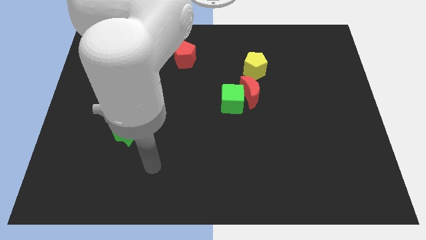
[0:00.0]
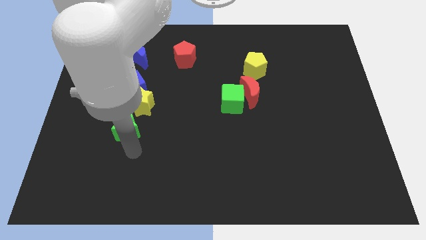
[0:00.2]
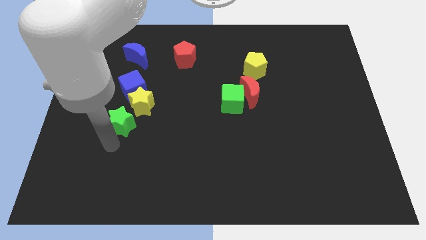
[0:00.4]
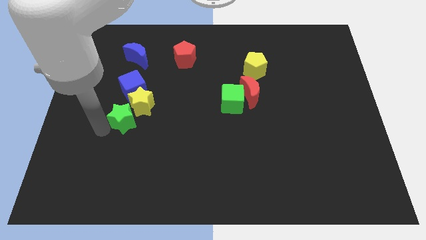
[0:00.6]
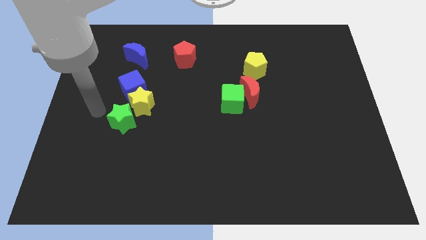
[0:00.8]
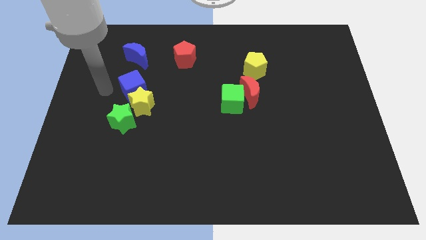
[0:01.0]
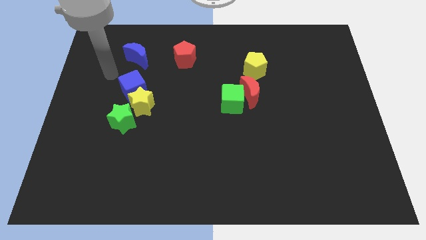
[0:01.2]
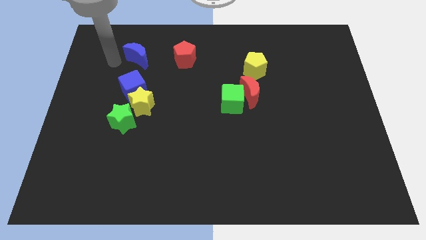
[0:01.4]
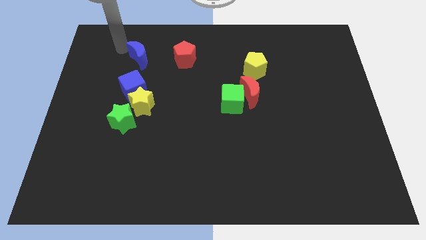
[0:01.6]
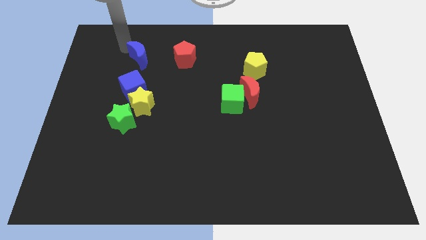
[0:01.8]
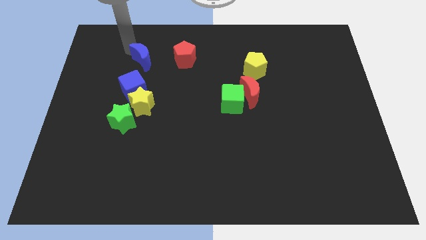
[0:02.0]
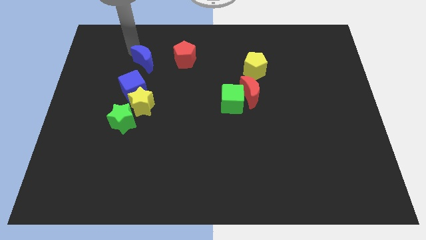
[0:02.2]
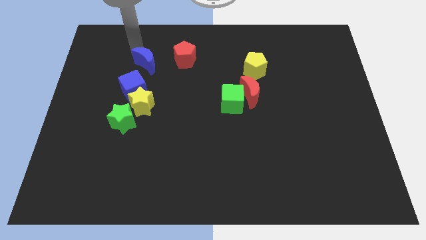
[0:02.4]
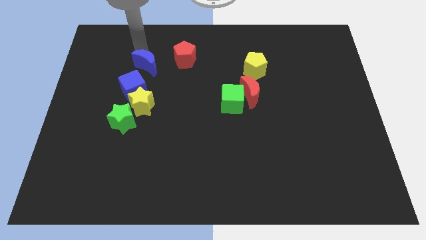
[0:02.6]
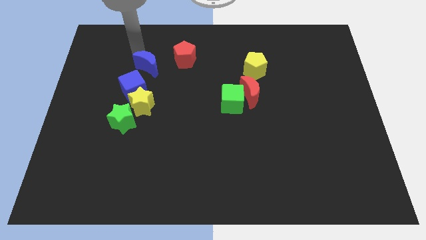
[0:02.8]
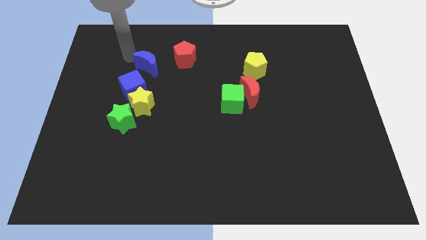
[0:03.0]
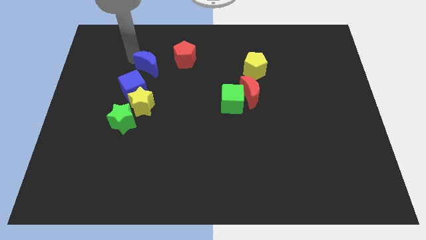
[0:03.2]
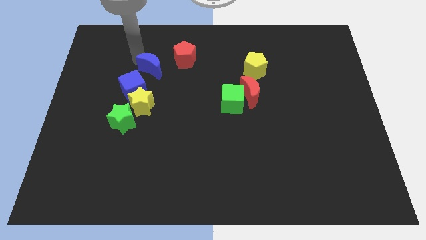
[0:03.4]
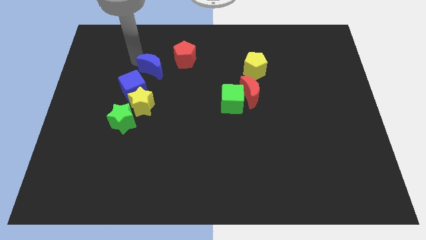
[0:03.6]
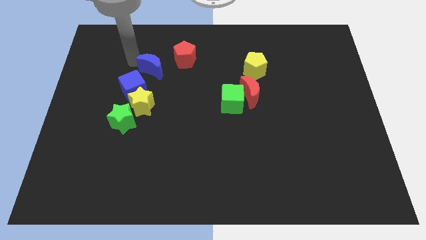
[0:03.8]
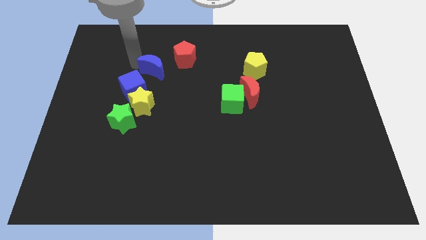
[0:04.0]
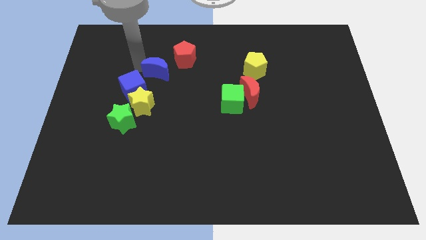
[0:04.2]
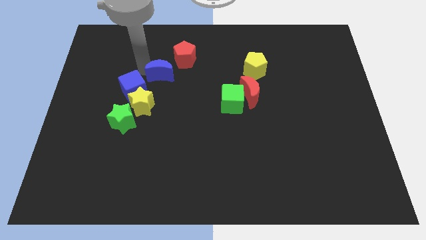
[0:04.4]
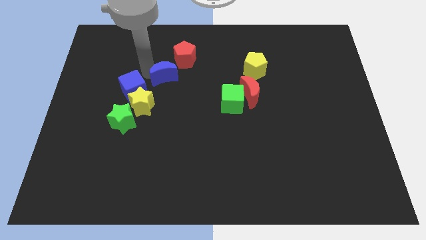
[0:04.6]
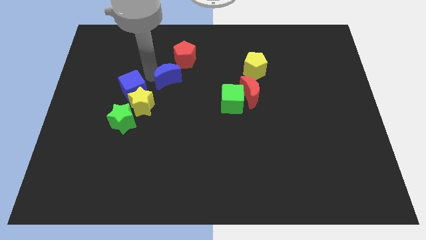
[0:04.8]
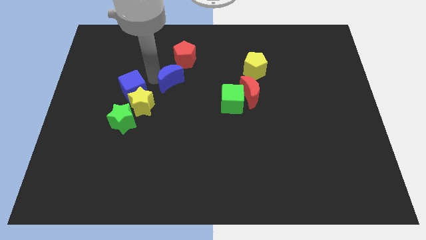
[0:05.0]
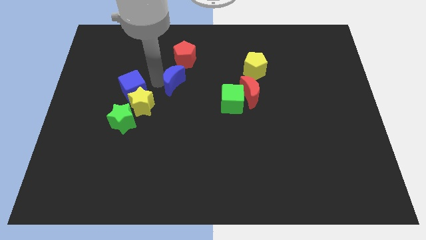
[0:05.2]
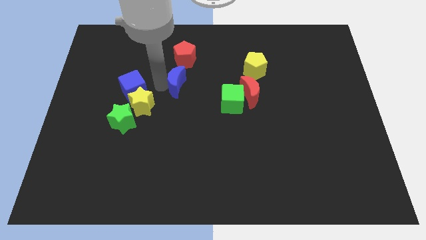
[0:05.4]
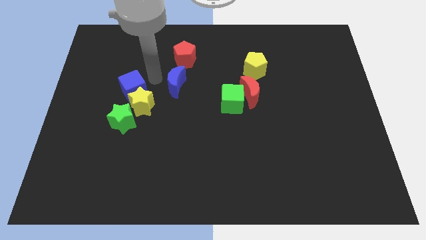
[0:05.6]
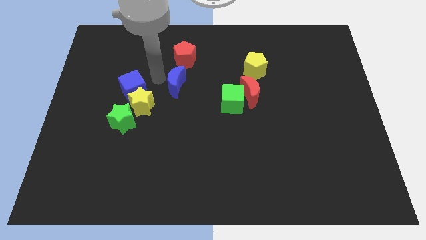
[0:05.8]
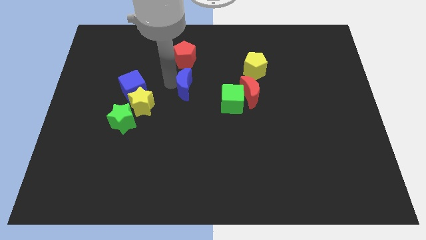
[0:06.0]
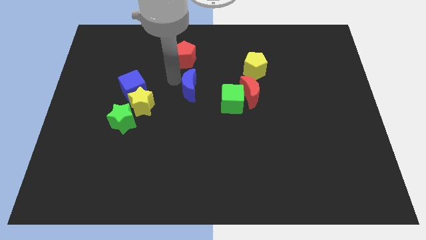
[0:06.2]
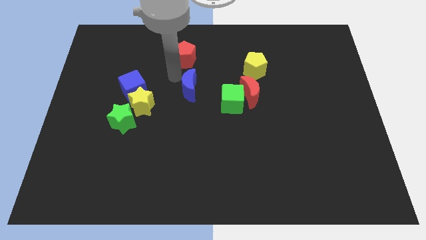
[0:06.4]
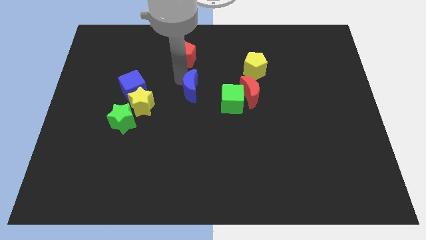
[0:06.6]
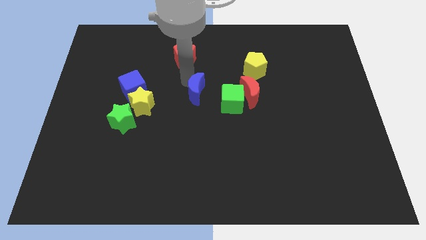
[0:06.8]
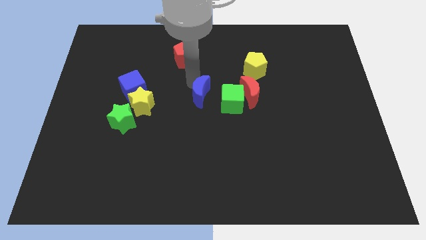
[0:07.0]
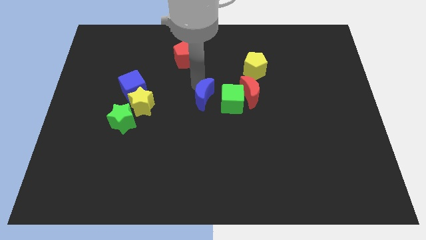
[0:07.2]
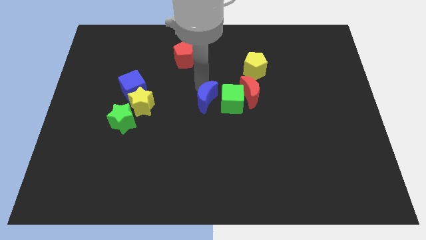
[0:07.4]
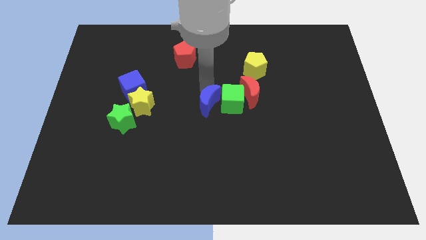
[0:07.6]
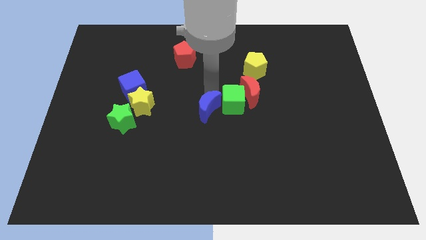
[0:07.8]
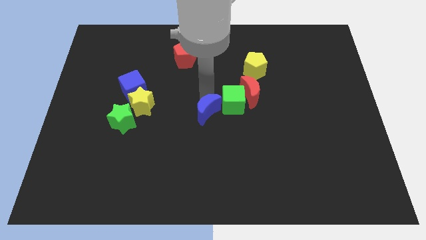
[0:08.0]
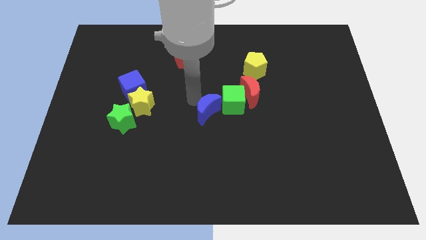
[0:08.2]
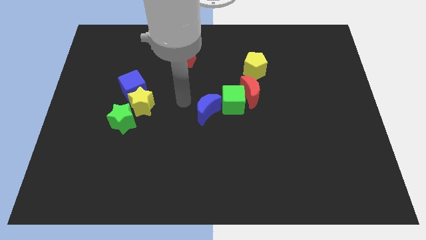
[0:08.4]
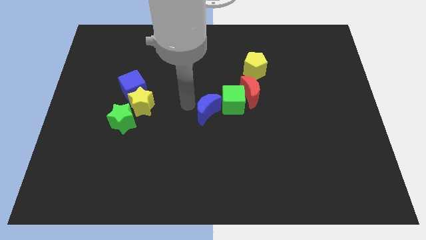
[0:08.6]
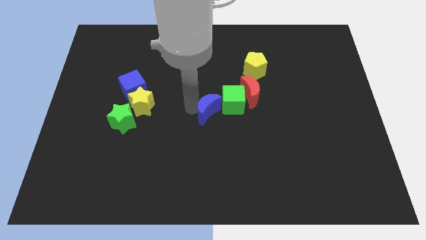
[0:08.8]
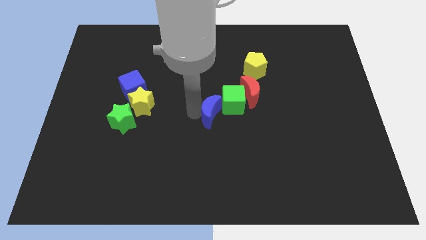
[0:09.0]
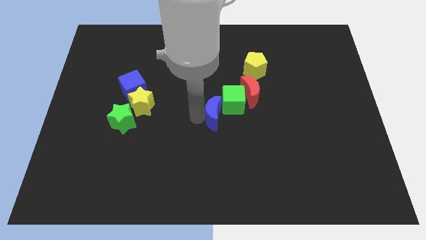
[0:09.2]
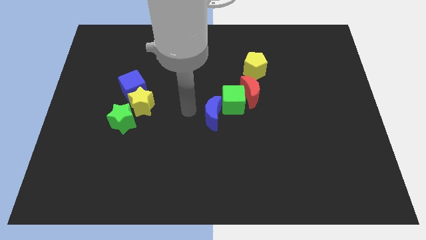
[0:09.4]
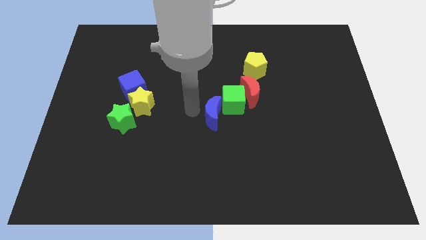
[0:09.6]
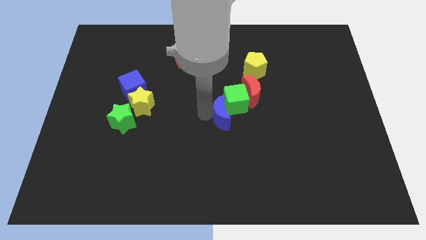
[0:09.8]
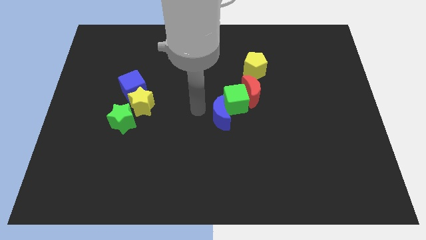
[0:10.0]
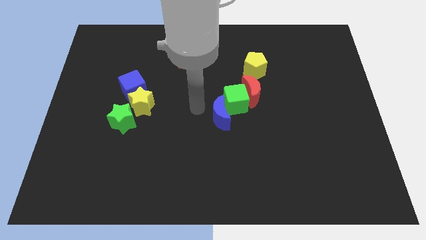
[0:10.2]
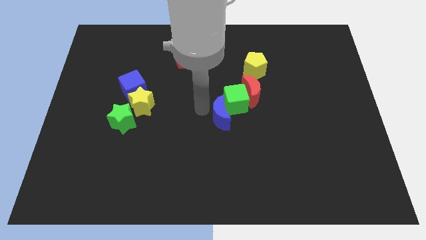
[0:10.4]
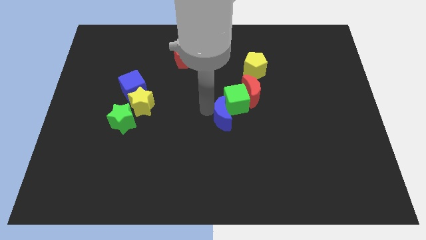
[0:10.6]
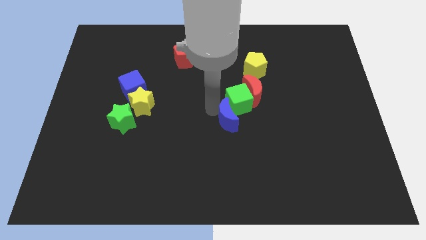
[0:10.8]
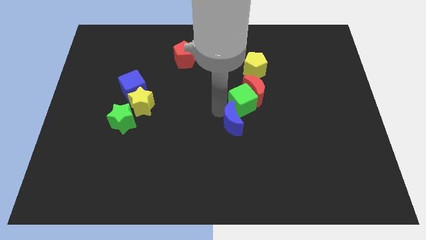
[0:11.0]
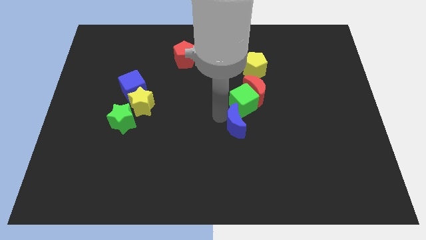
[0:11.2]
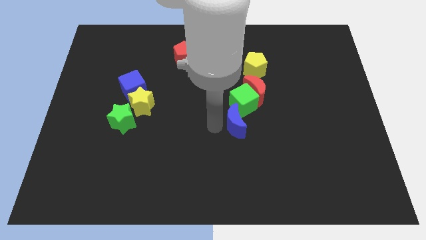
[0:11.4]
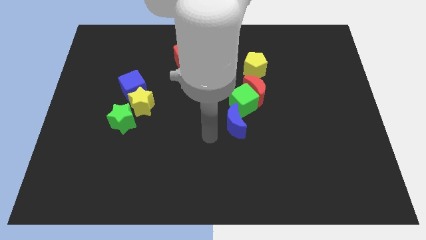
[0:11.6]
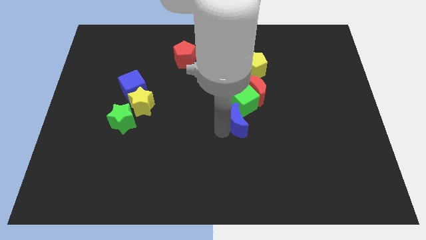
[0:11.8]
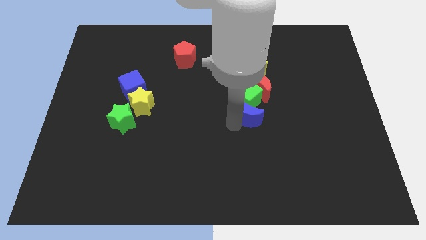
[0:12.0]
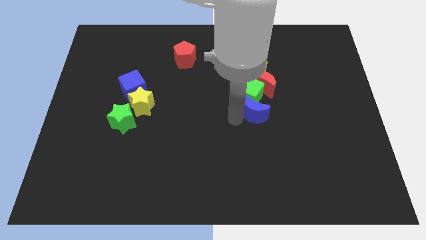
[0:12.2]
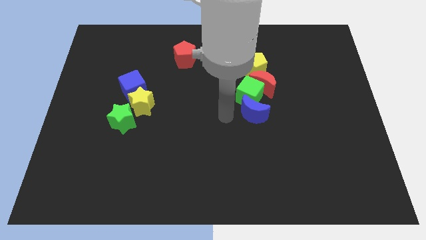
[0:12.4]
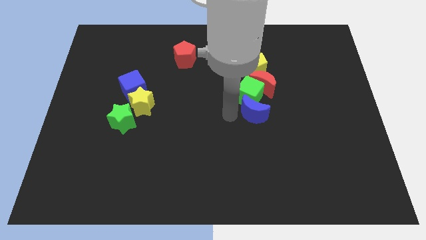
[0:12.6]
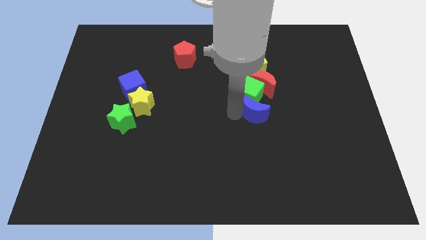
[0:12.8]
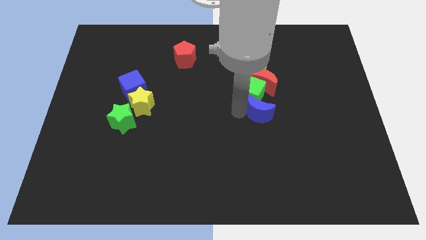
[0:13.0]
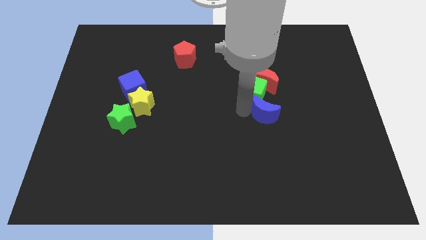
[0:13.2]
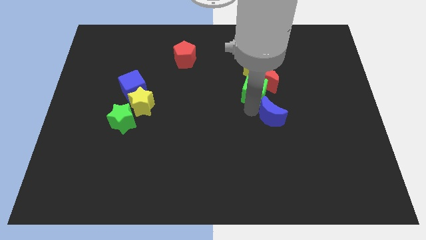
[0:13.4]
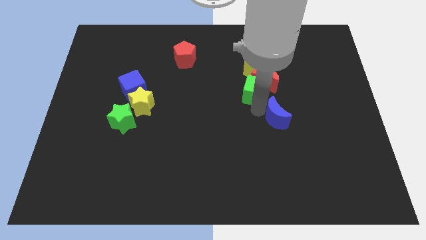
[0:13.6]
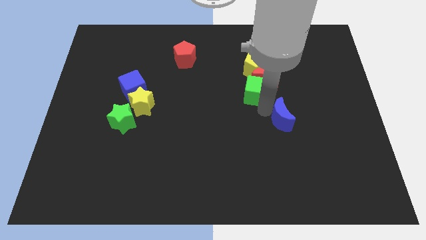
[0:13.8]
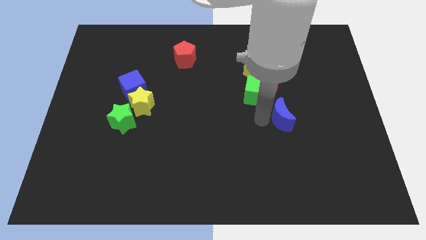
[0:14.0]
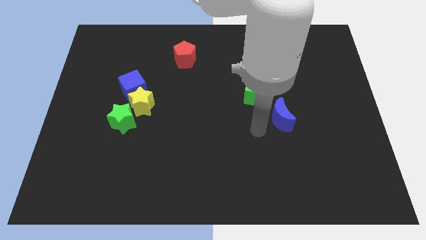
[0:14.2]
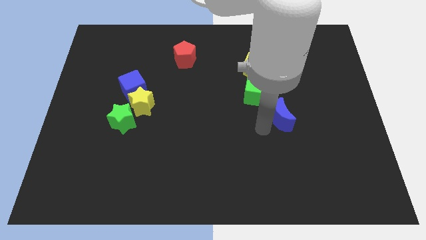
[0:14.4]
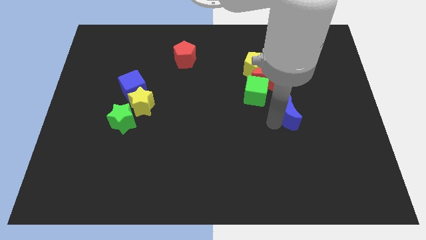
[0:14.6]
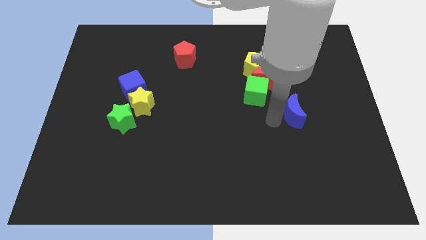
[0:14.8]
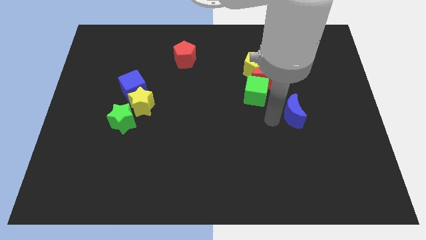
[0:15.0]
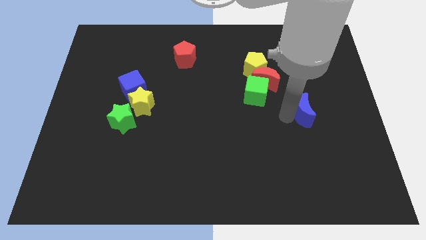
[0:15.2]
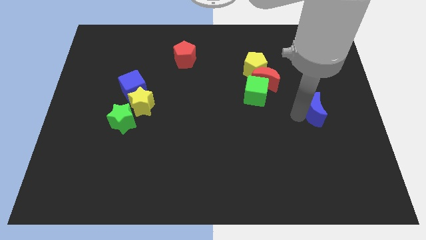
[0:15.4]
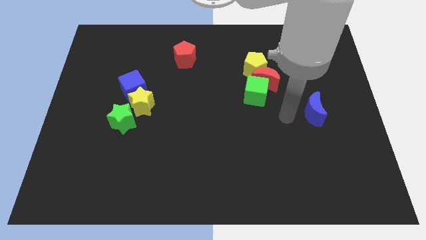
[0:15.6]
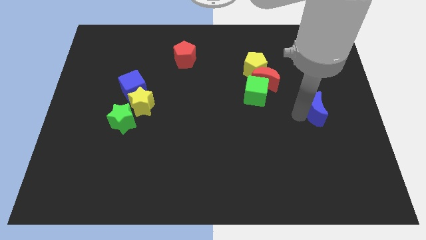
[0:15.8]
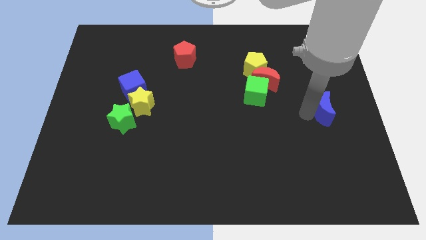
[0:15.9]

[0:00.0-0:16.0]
push the blue moon to the center right
